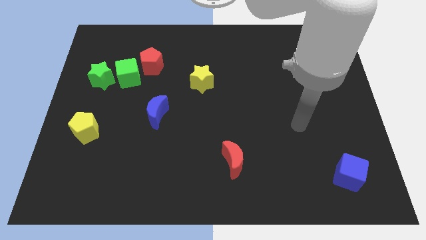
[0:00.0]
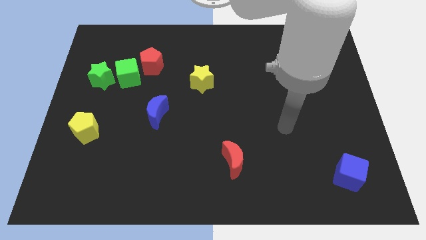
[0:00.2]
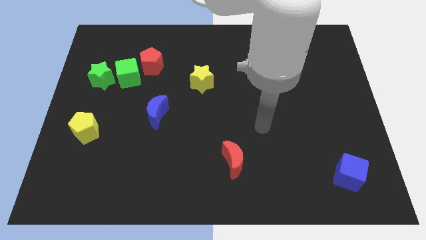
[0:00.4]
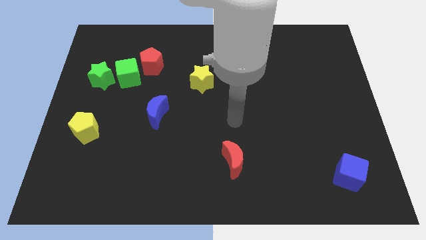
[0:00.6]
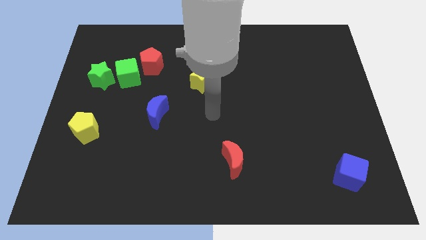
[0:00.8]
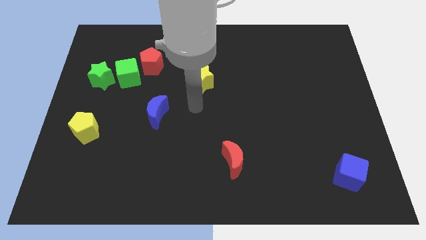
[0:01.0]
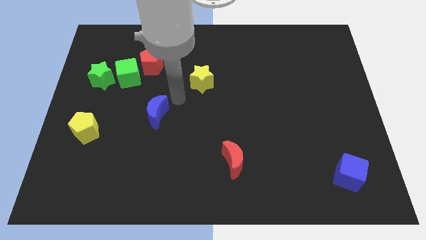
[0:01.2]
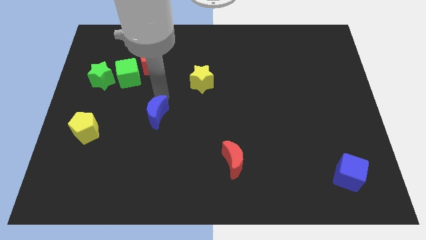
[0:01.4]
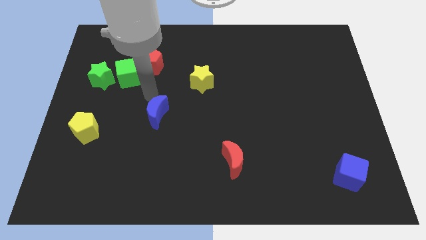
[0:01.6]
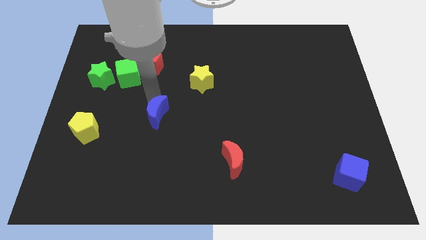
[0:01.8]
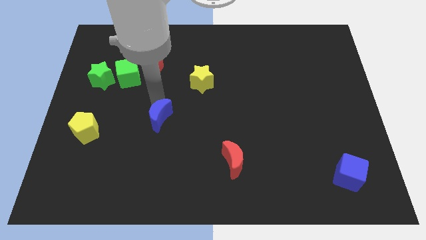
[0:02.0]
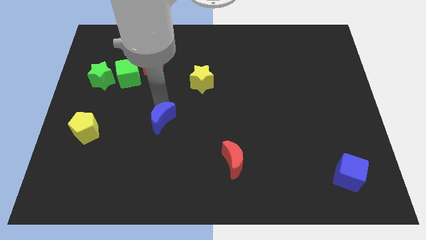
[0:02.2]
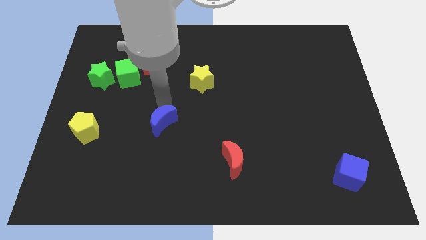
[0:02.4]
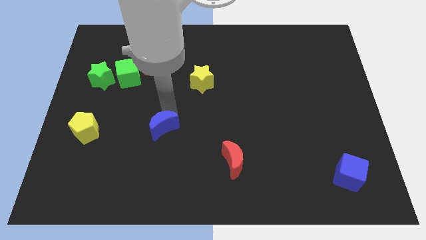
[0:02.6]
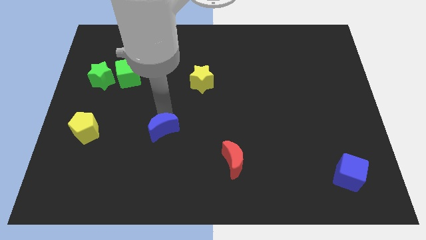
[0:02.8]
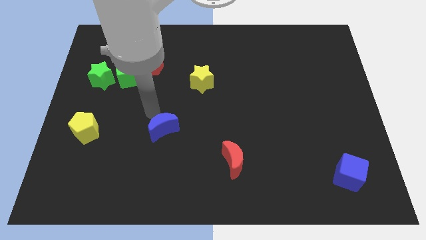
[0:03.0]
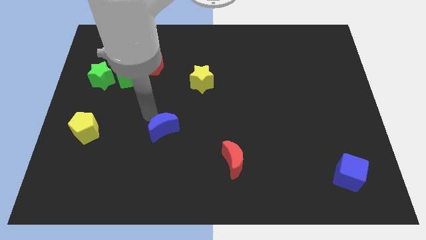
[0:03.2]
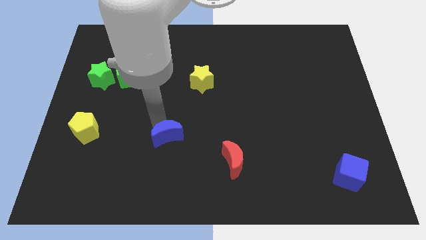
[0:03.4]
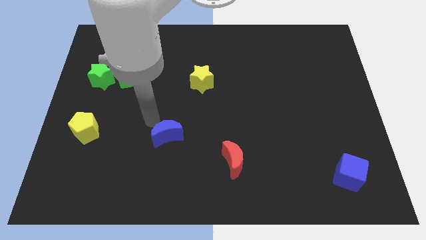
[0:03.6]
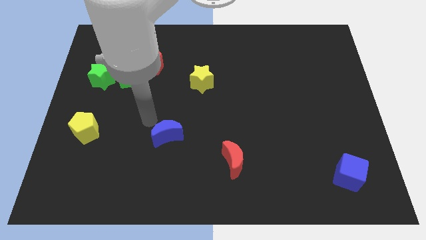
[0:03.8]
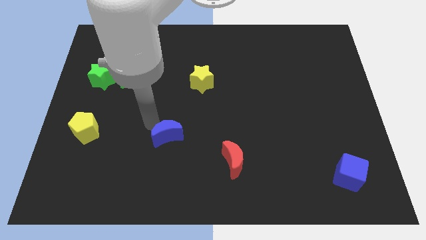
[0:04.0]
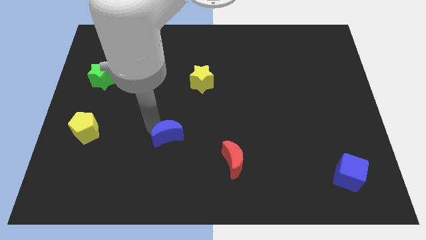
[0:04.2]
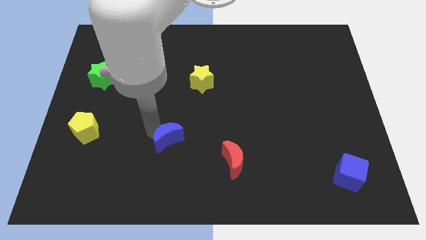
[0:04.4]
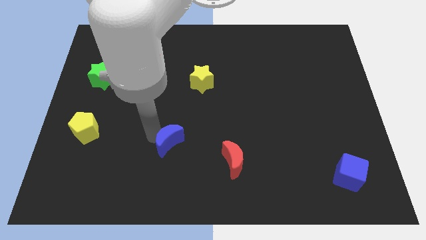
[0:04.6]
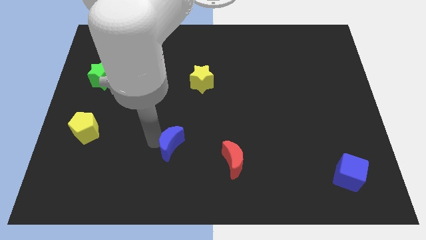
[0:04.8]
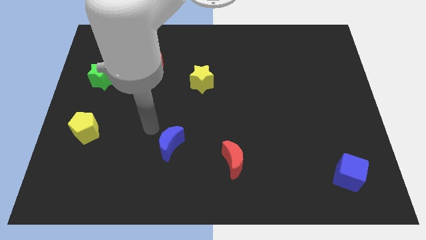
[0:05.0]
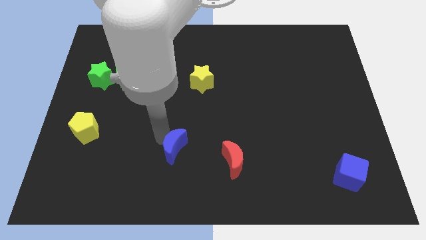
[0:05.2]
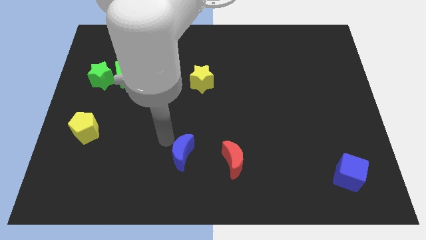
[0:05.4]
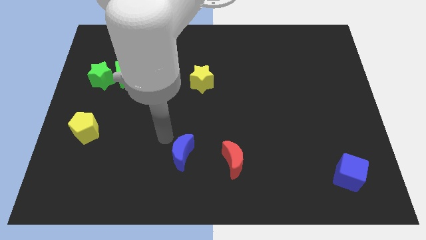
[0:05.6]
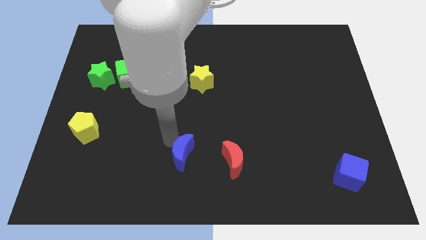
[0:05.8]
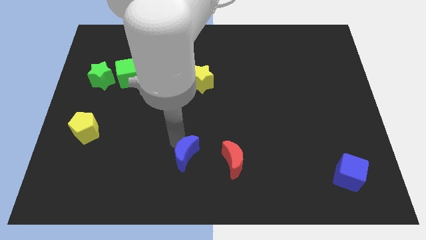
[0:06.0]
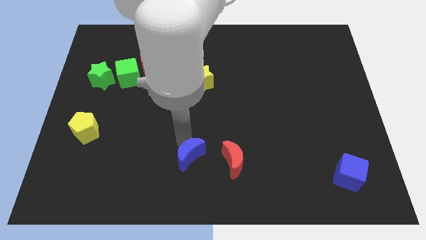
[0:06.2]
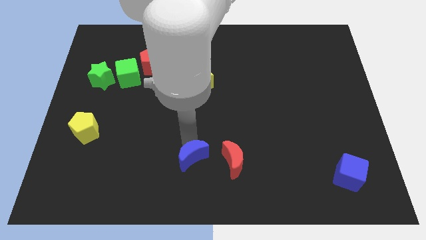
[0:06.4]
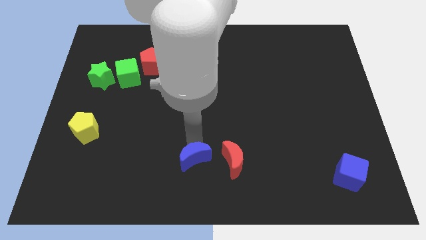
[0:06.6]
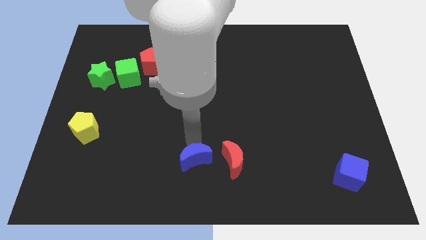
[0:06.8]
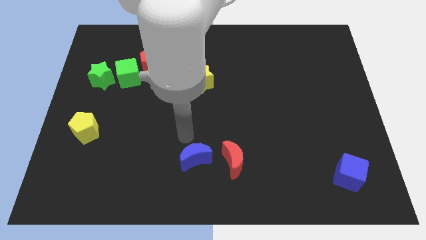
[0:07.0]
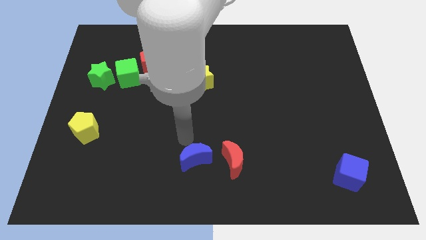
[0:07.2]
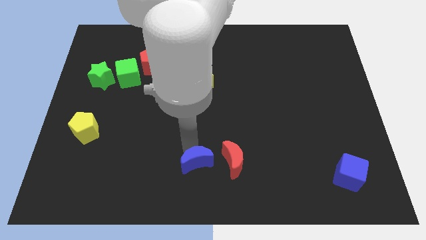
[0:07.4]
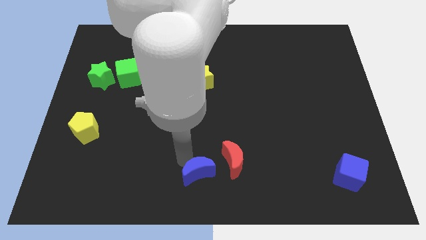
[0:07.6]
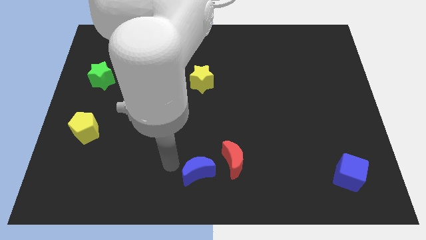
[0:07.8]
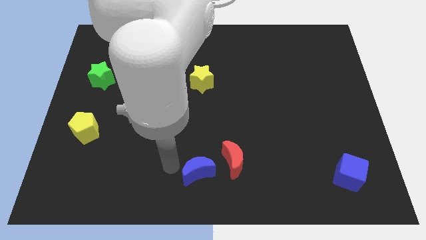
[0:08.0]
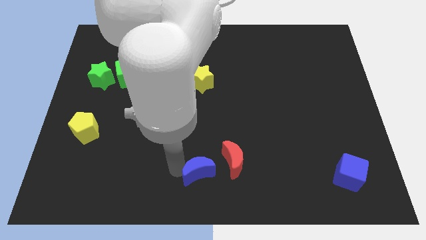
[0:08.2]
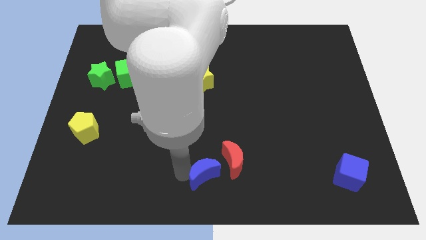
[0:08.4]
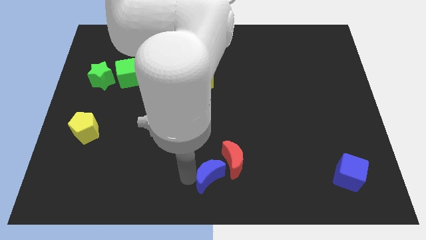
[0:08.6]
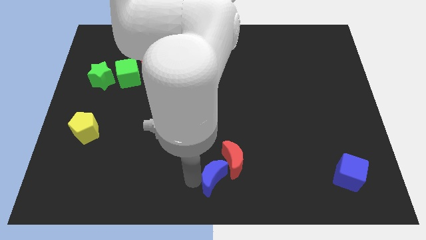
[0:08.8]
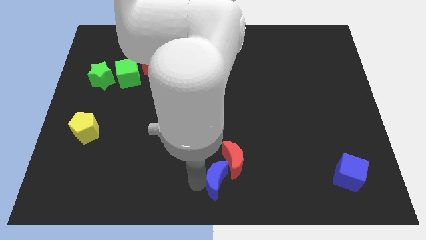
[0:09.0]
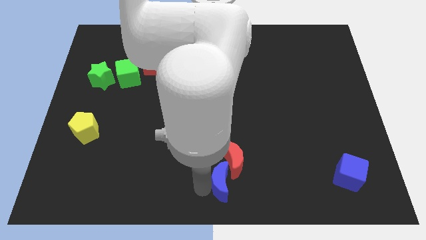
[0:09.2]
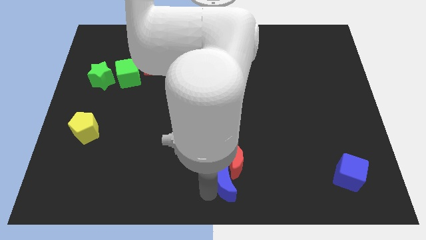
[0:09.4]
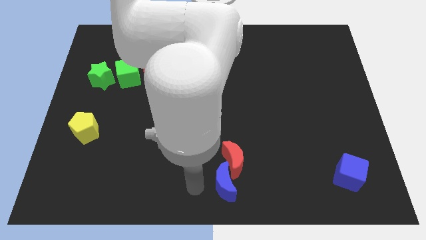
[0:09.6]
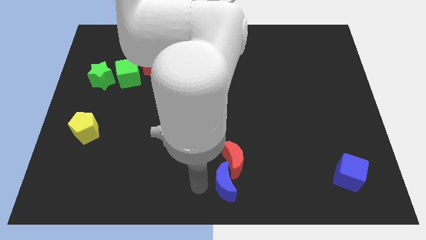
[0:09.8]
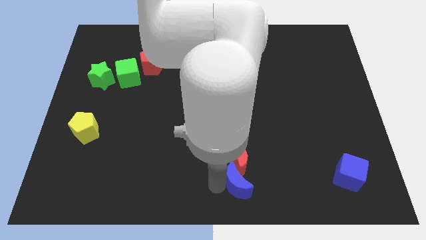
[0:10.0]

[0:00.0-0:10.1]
push the blue moon to the bottom right of the red moon

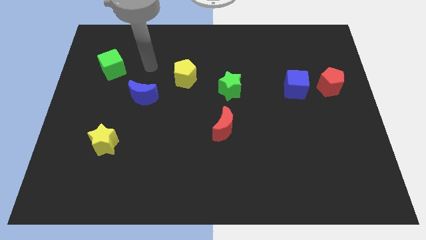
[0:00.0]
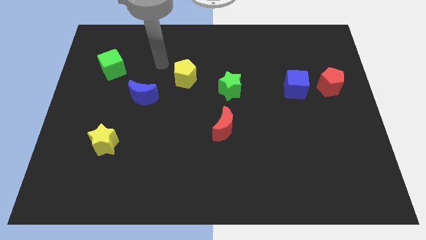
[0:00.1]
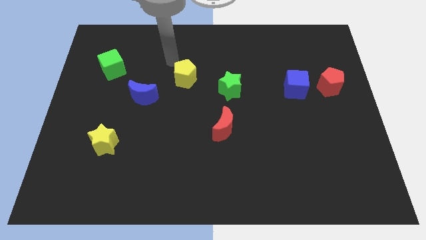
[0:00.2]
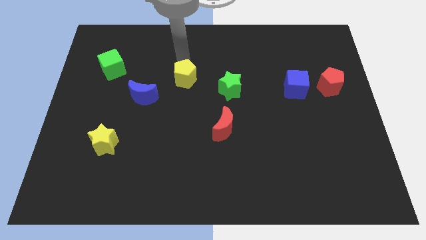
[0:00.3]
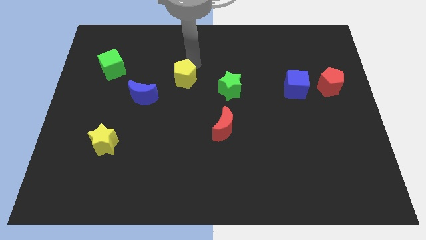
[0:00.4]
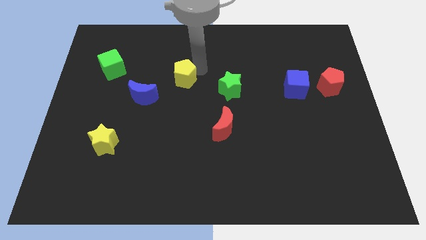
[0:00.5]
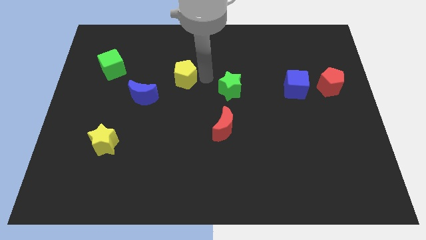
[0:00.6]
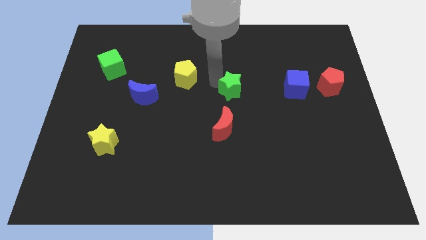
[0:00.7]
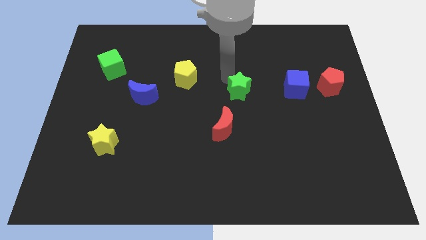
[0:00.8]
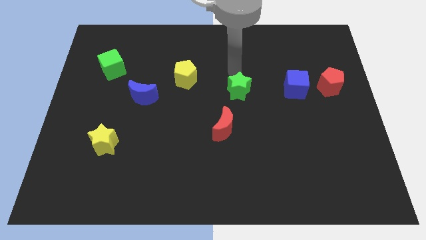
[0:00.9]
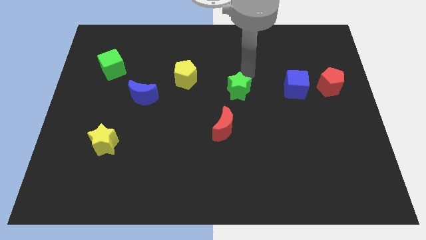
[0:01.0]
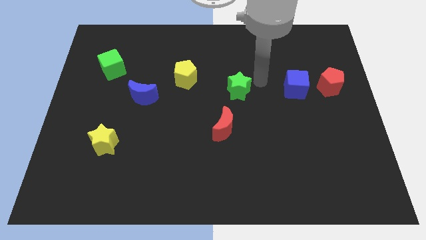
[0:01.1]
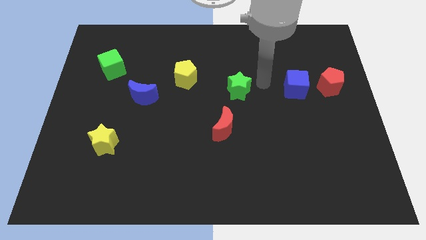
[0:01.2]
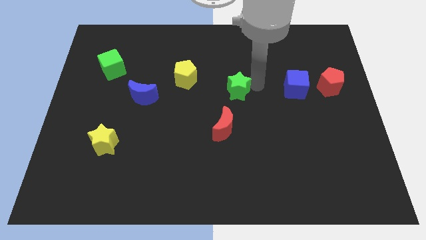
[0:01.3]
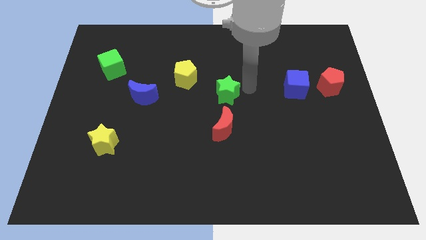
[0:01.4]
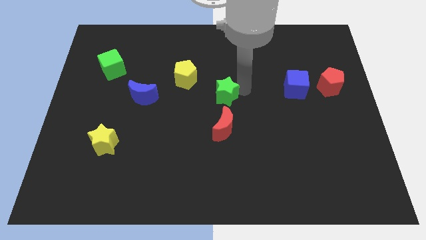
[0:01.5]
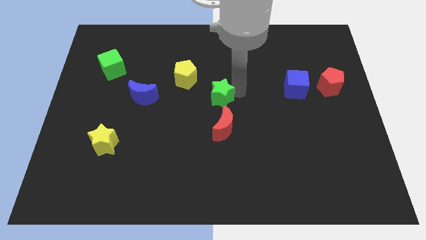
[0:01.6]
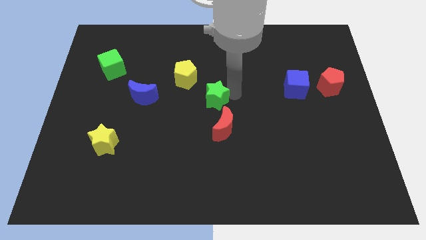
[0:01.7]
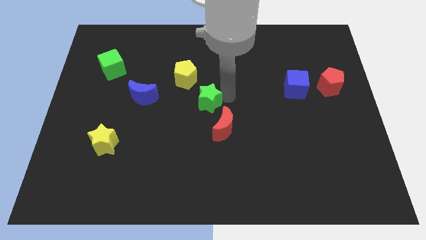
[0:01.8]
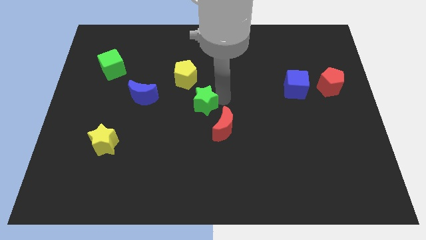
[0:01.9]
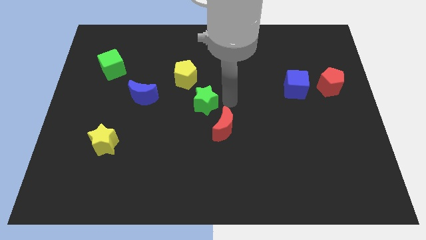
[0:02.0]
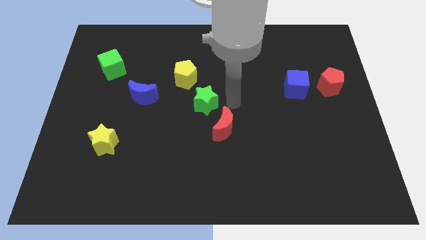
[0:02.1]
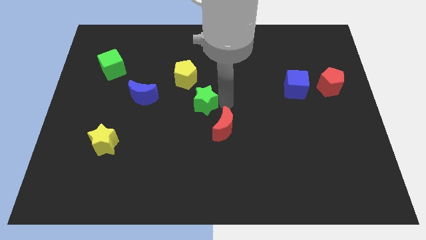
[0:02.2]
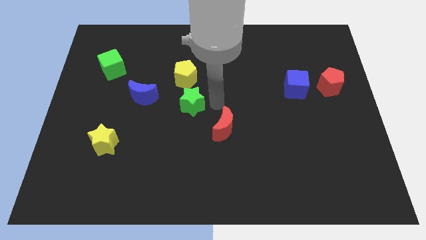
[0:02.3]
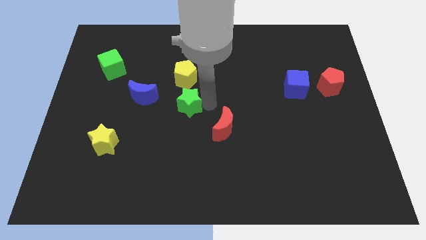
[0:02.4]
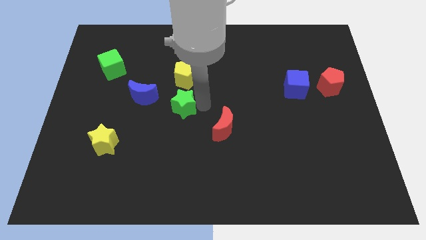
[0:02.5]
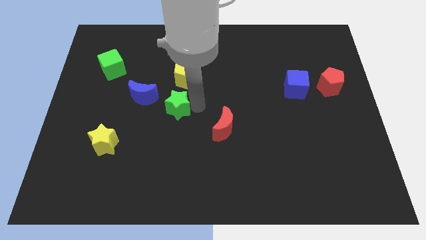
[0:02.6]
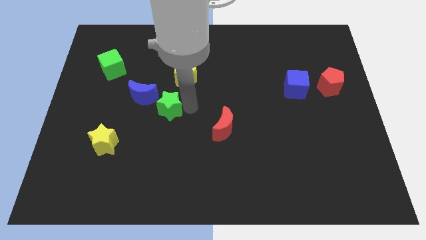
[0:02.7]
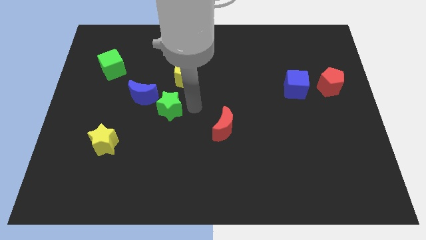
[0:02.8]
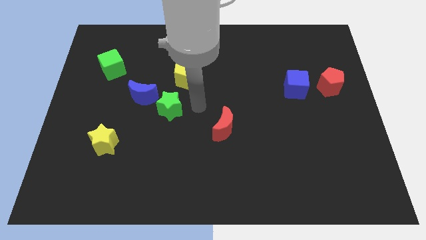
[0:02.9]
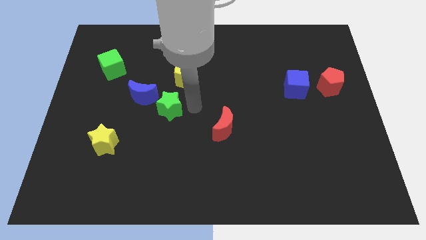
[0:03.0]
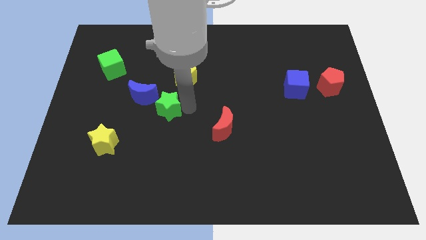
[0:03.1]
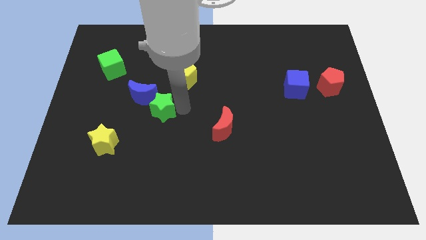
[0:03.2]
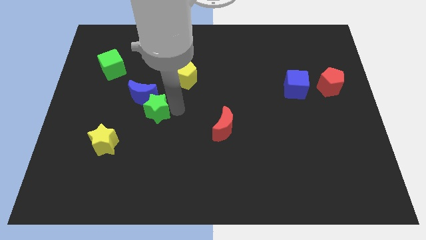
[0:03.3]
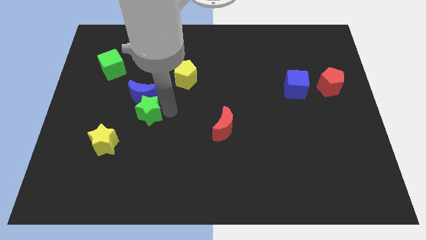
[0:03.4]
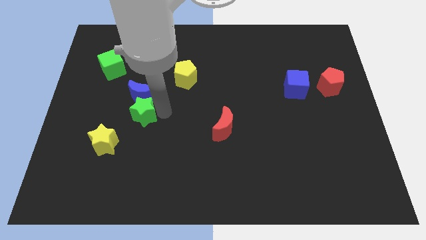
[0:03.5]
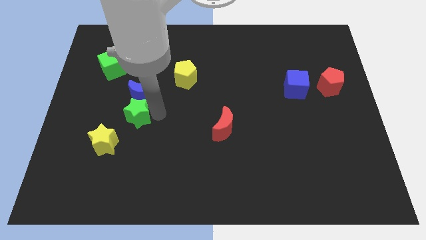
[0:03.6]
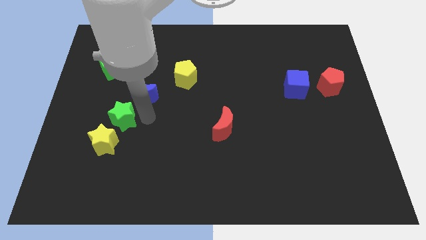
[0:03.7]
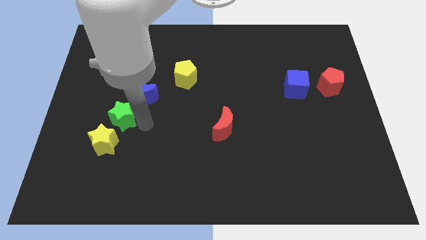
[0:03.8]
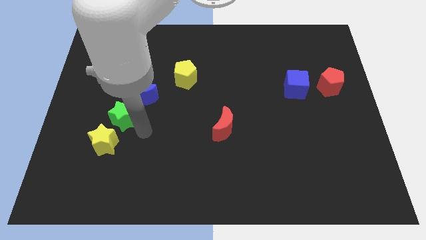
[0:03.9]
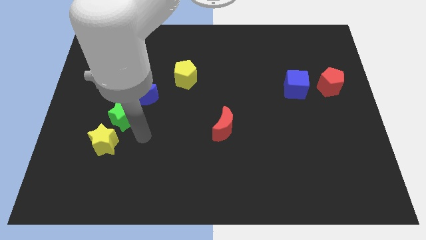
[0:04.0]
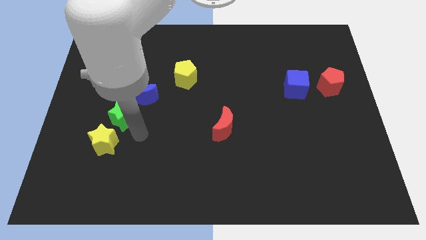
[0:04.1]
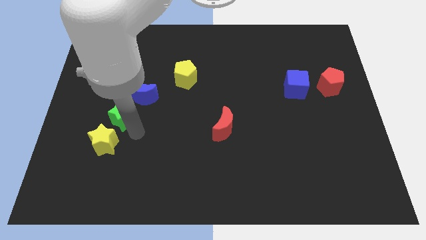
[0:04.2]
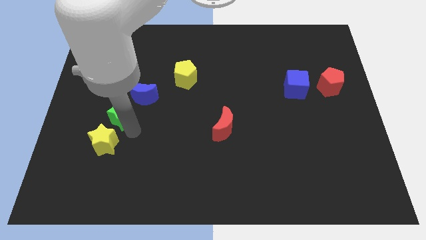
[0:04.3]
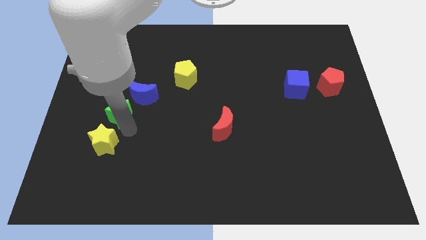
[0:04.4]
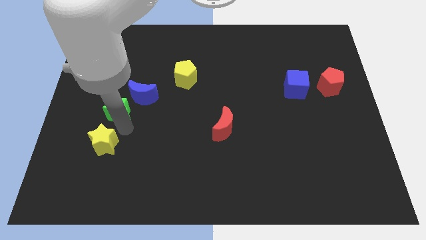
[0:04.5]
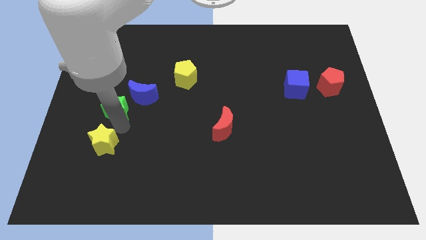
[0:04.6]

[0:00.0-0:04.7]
put the green star to the left side of the blue moon
